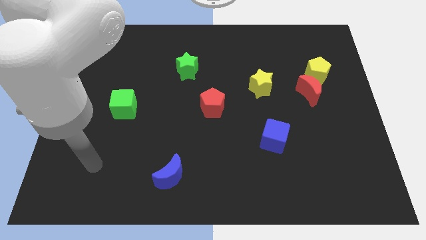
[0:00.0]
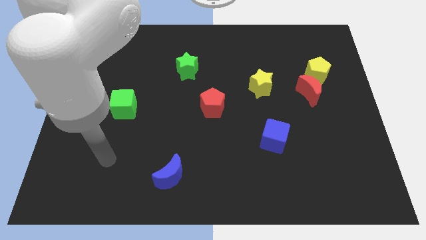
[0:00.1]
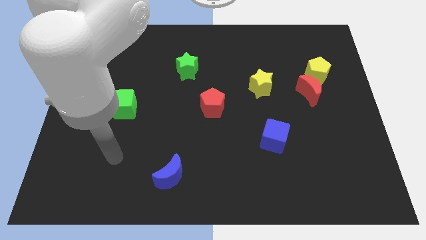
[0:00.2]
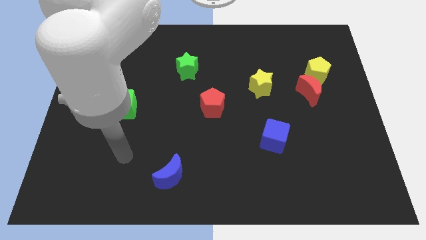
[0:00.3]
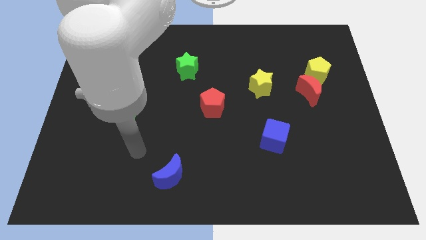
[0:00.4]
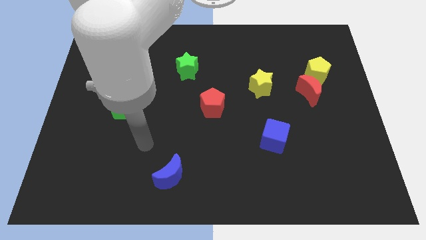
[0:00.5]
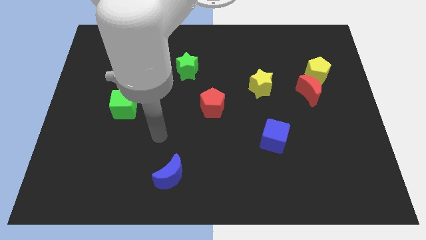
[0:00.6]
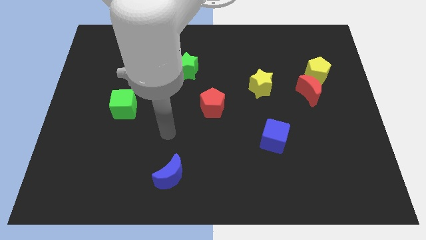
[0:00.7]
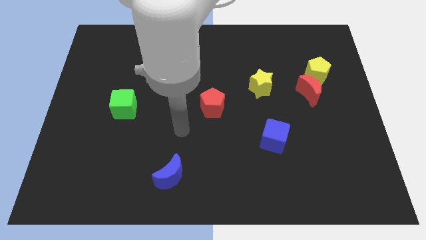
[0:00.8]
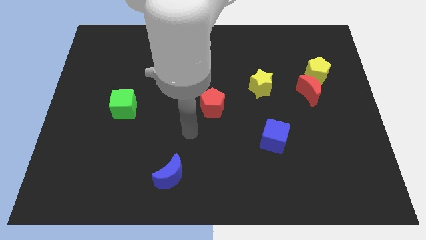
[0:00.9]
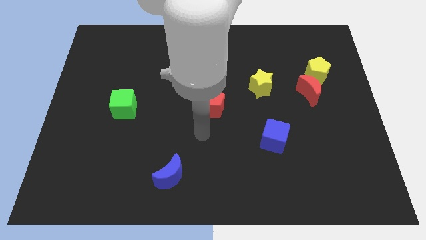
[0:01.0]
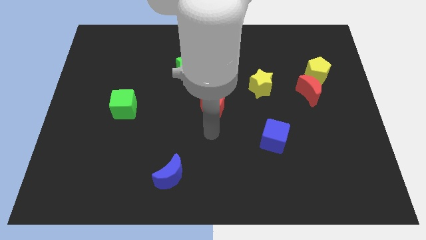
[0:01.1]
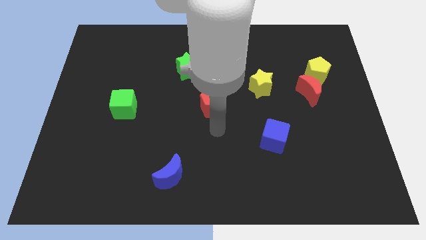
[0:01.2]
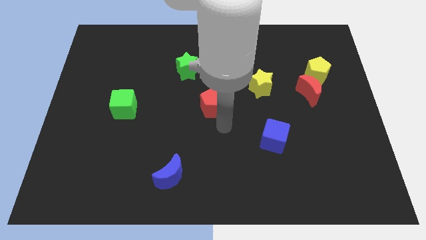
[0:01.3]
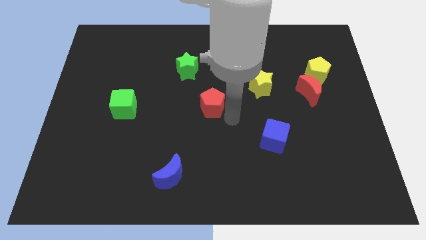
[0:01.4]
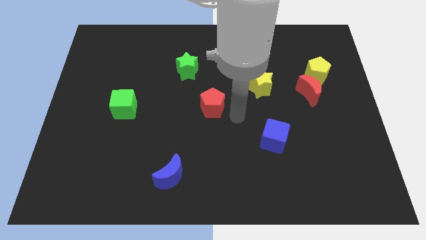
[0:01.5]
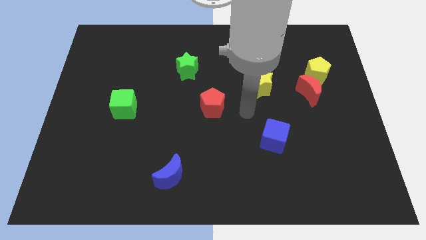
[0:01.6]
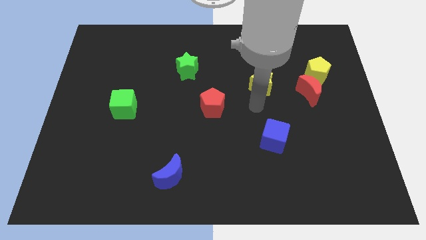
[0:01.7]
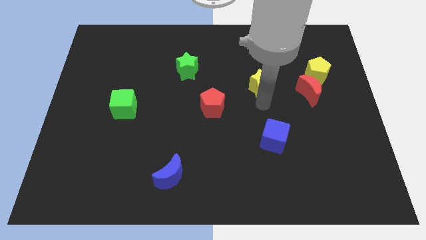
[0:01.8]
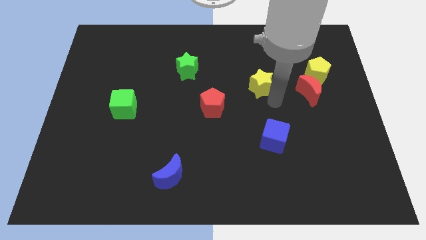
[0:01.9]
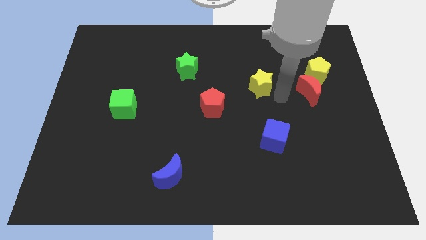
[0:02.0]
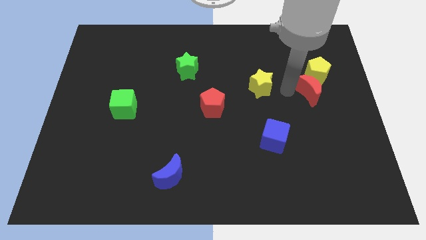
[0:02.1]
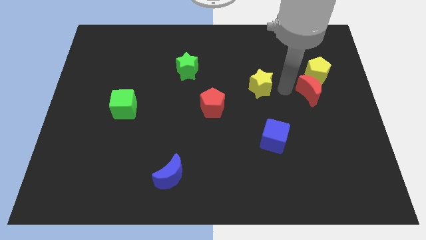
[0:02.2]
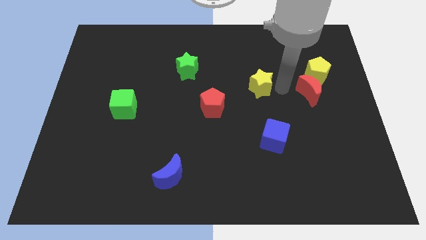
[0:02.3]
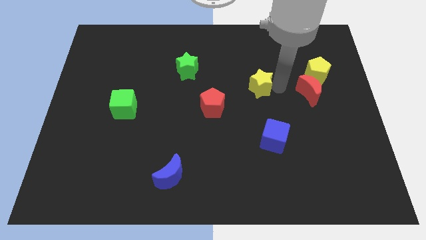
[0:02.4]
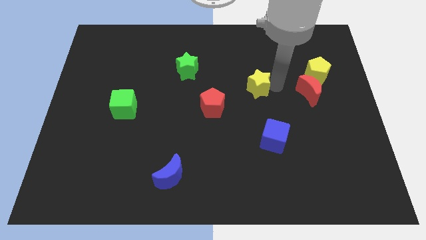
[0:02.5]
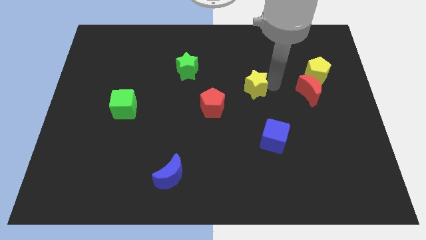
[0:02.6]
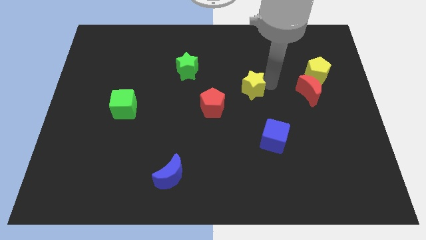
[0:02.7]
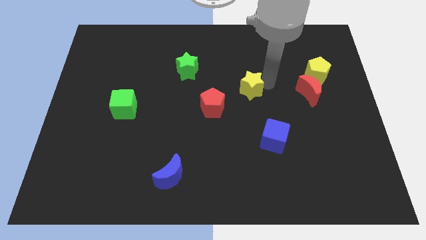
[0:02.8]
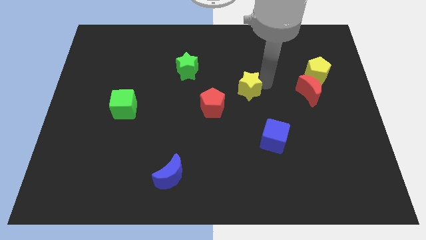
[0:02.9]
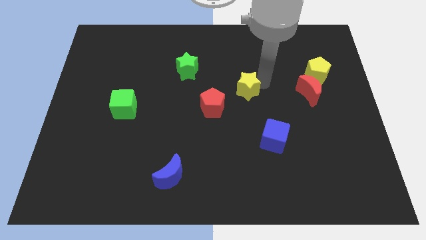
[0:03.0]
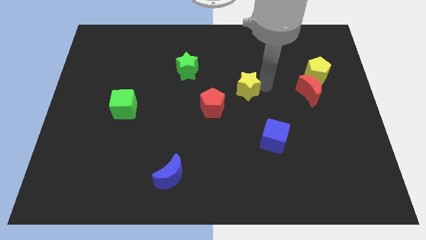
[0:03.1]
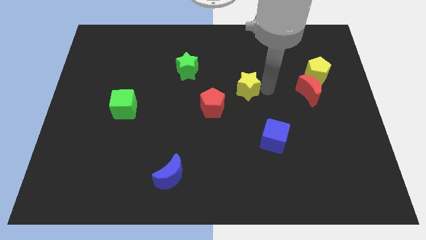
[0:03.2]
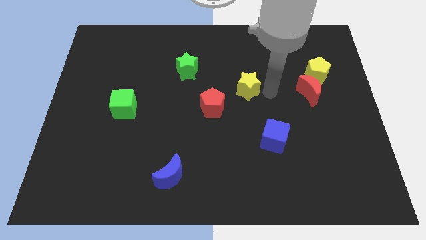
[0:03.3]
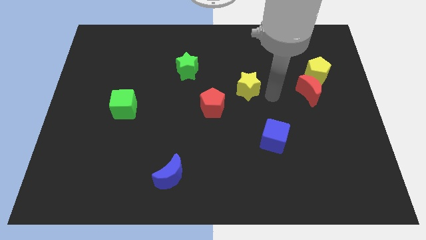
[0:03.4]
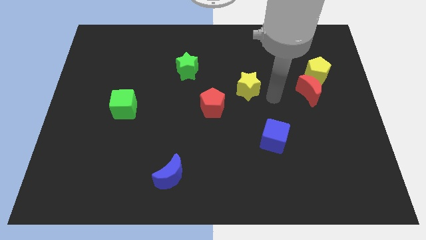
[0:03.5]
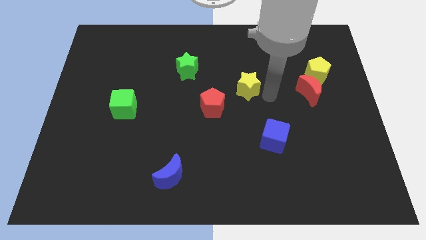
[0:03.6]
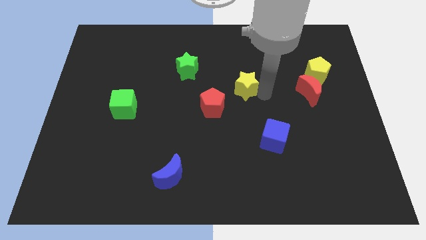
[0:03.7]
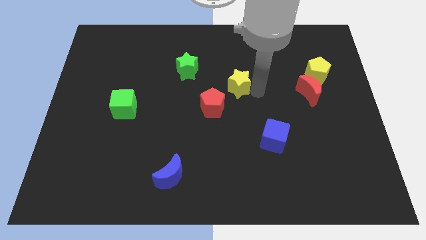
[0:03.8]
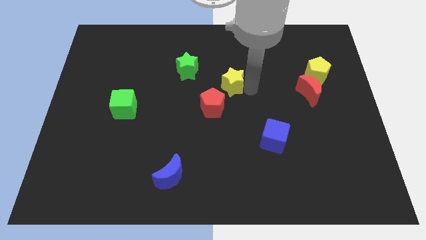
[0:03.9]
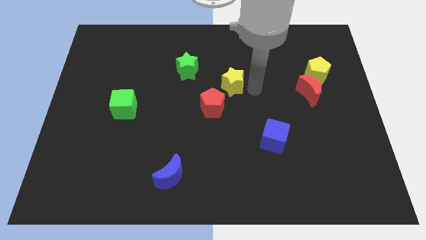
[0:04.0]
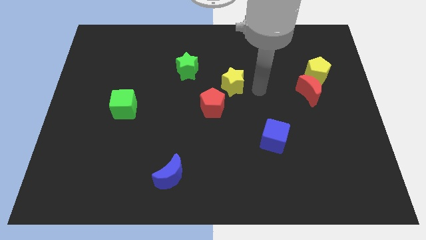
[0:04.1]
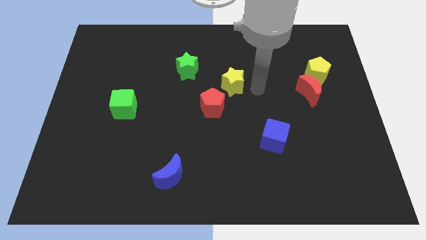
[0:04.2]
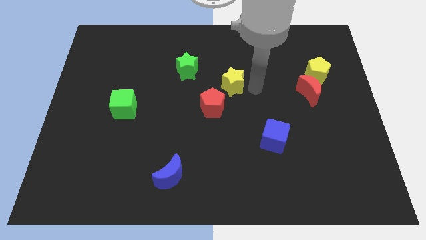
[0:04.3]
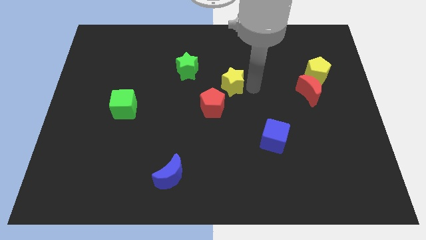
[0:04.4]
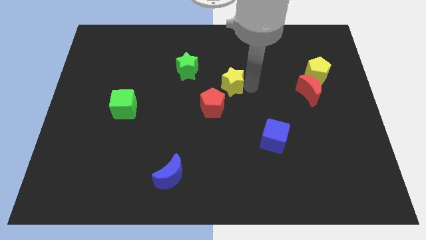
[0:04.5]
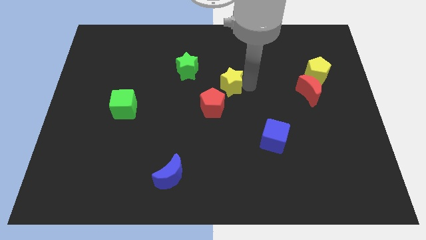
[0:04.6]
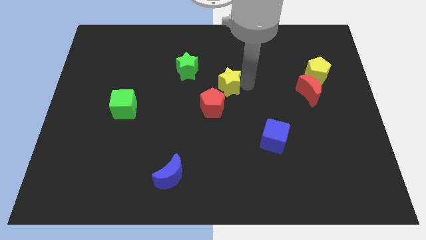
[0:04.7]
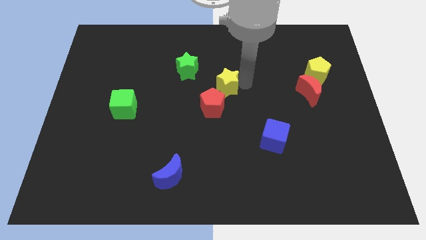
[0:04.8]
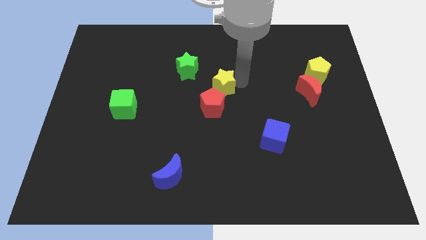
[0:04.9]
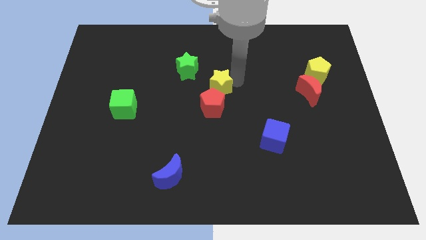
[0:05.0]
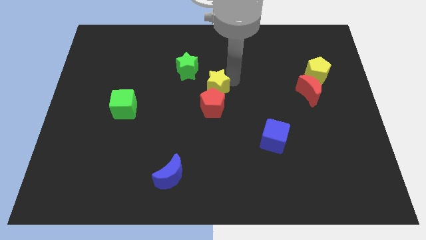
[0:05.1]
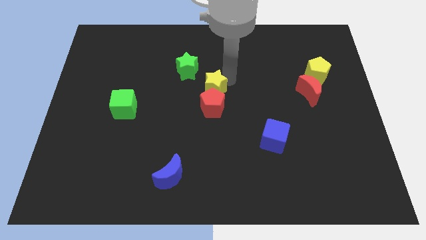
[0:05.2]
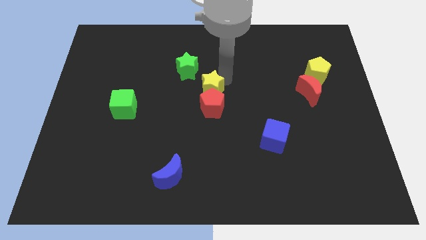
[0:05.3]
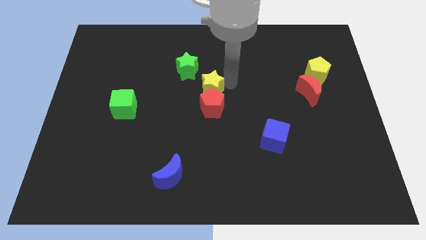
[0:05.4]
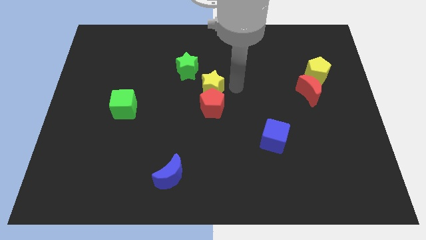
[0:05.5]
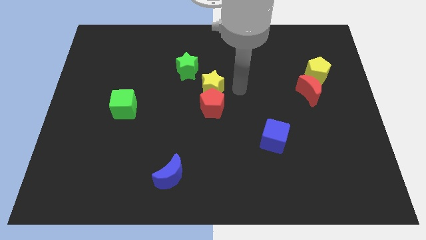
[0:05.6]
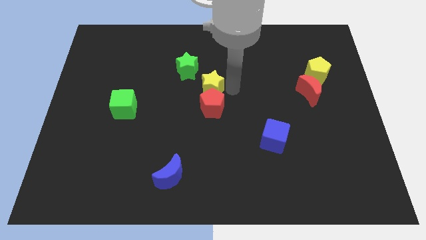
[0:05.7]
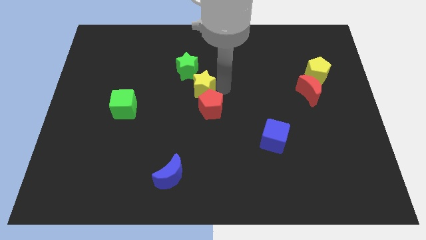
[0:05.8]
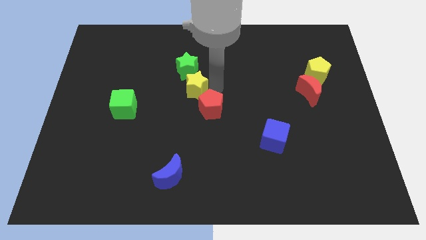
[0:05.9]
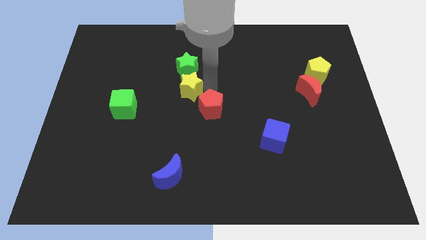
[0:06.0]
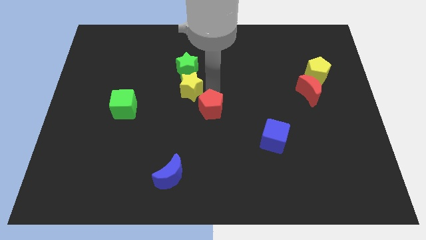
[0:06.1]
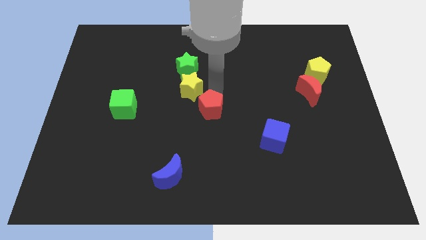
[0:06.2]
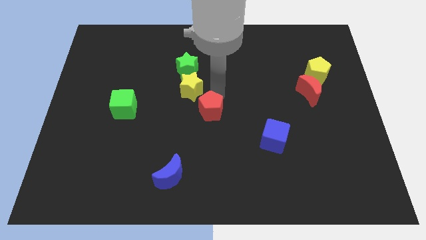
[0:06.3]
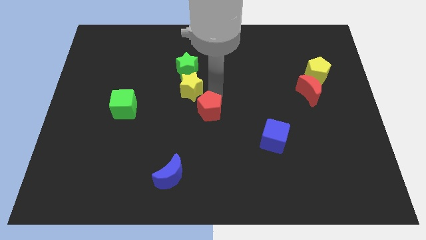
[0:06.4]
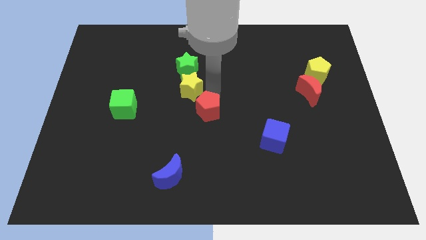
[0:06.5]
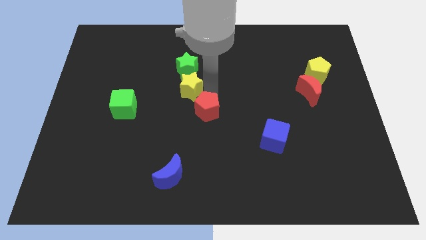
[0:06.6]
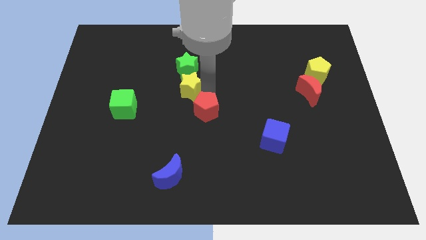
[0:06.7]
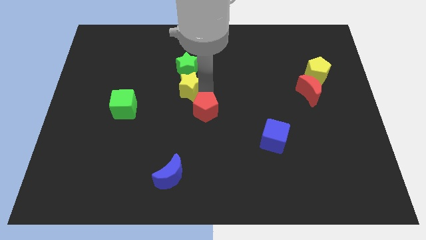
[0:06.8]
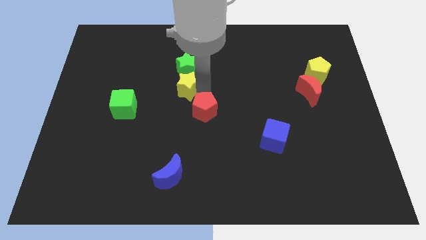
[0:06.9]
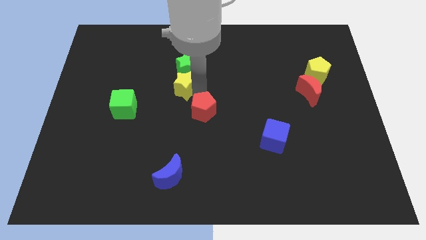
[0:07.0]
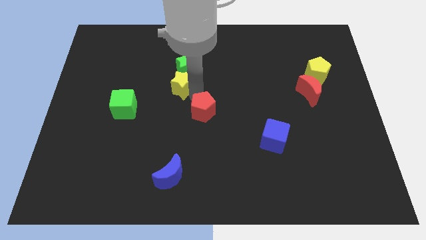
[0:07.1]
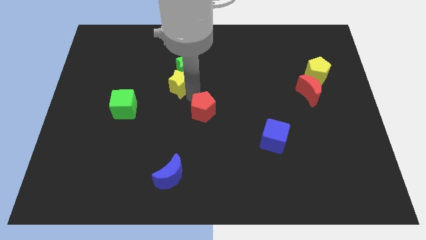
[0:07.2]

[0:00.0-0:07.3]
slide the yellow star to the left

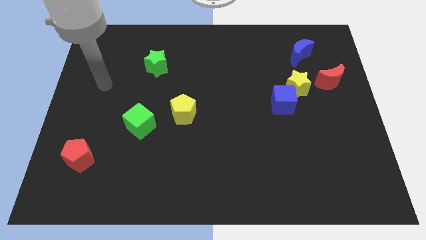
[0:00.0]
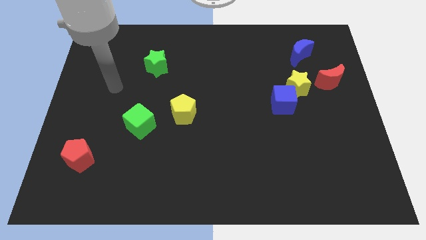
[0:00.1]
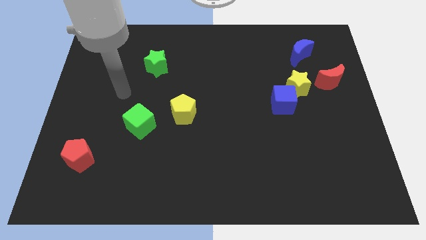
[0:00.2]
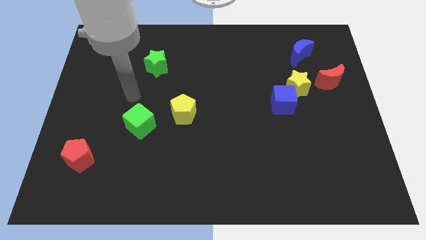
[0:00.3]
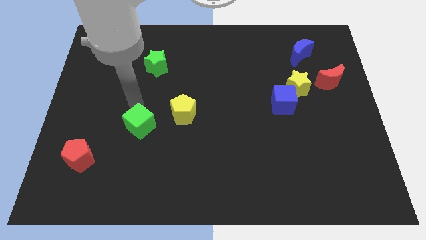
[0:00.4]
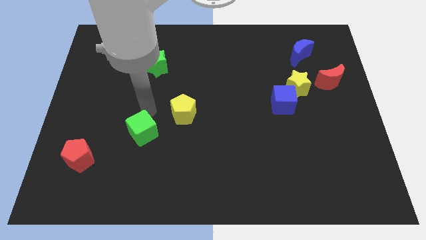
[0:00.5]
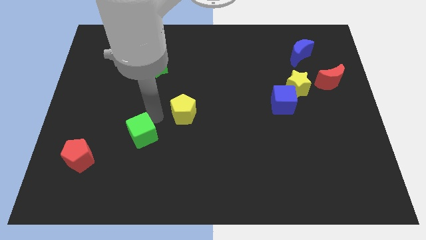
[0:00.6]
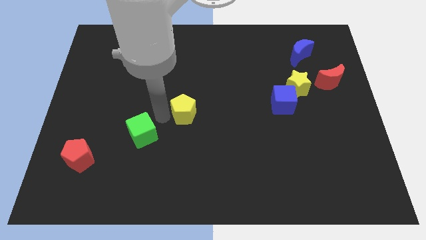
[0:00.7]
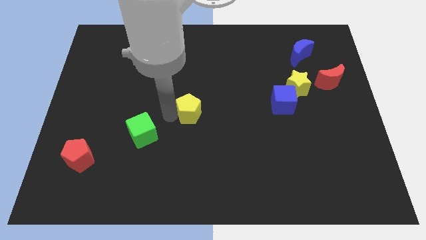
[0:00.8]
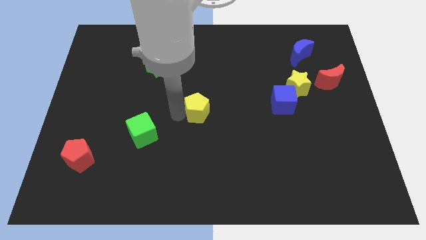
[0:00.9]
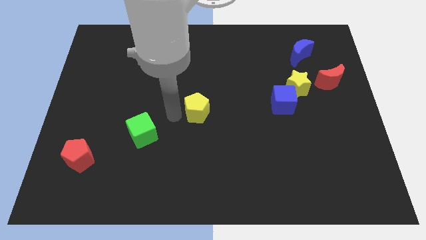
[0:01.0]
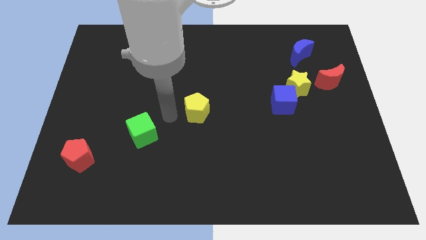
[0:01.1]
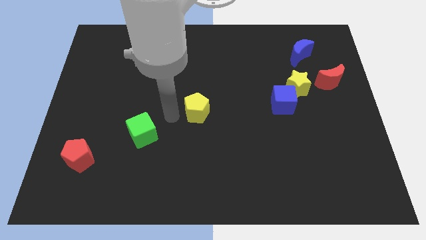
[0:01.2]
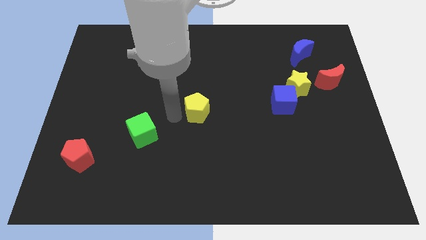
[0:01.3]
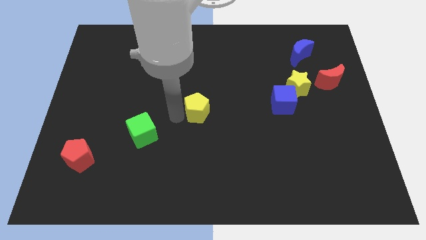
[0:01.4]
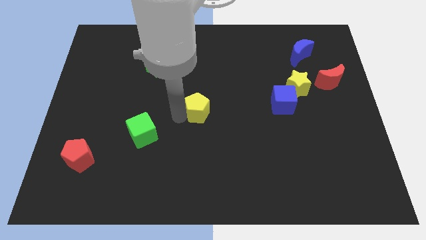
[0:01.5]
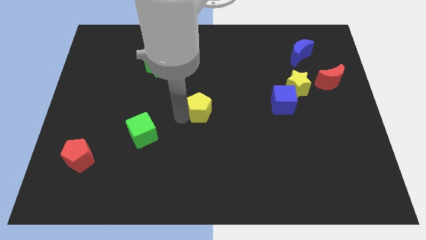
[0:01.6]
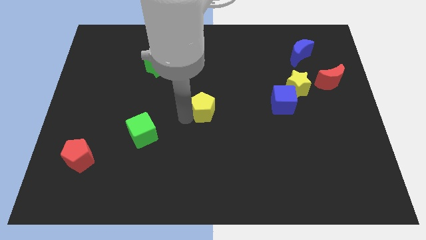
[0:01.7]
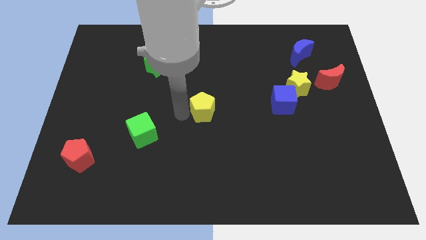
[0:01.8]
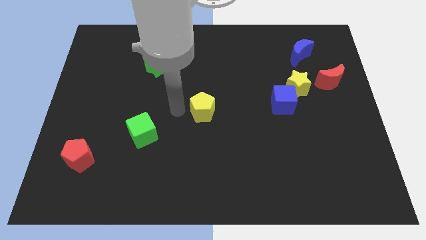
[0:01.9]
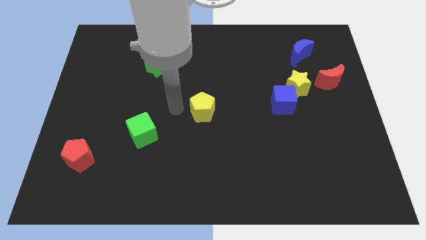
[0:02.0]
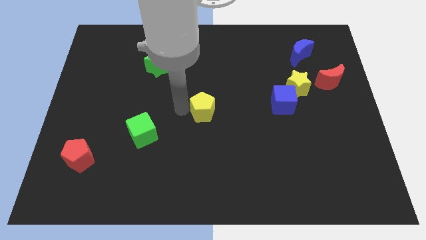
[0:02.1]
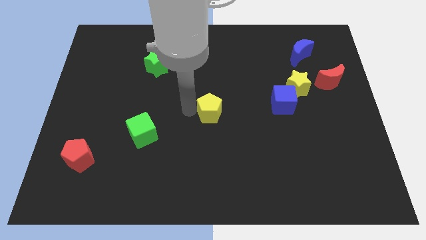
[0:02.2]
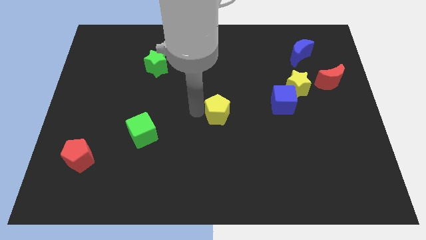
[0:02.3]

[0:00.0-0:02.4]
push the yellow pentagon a bit to the right
